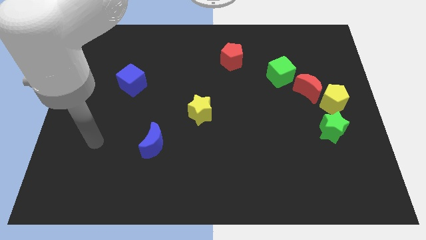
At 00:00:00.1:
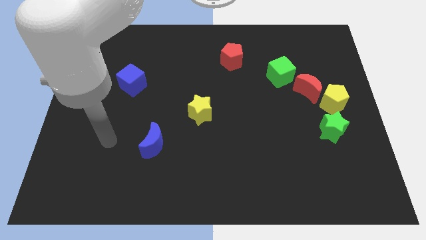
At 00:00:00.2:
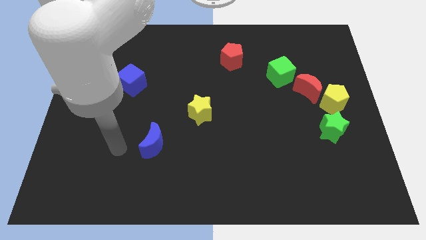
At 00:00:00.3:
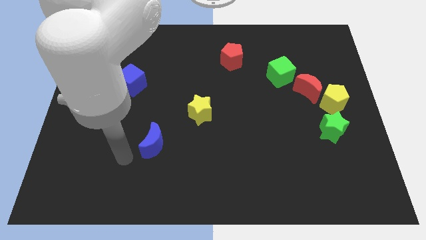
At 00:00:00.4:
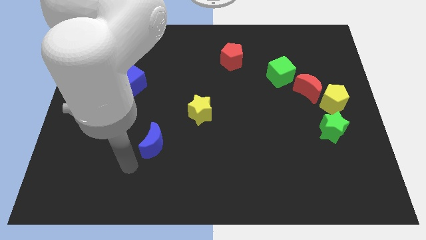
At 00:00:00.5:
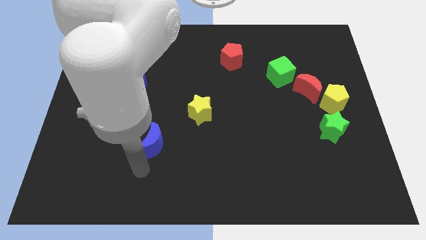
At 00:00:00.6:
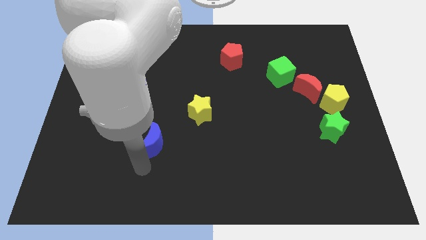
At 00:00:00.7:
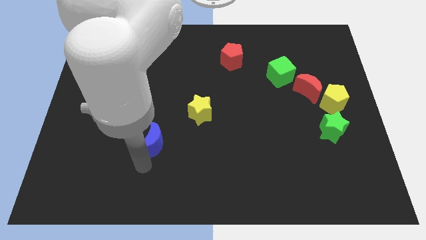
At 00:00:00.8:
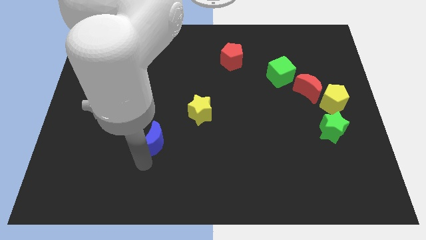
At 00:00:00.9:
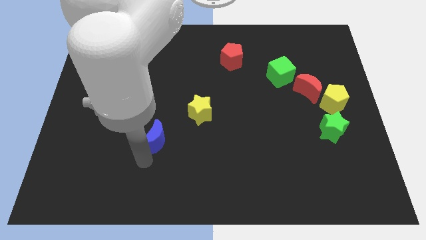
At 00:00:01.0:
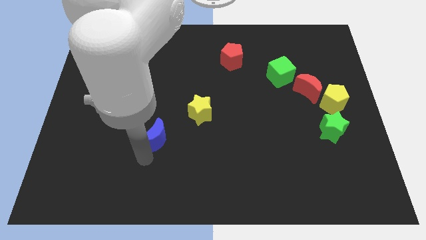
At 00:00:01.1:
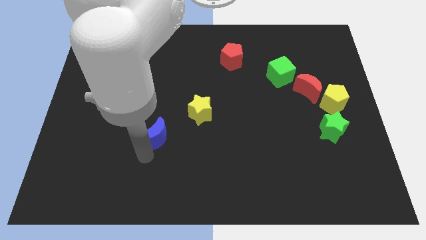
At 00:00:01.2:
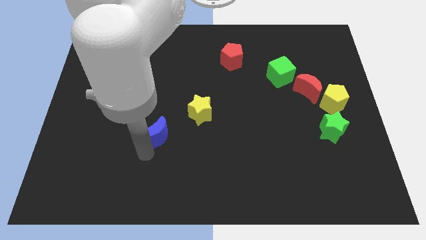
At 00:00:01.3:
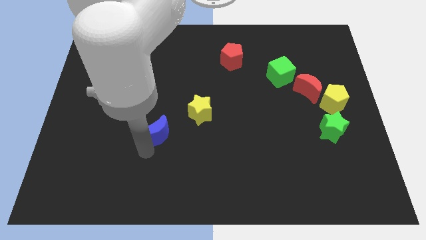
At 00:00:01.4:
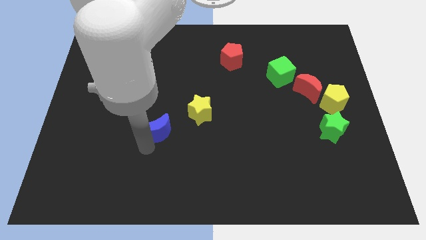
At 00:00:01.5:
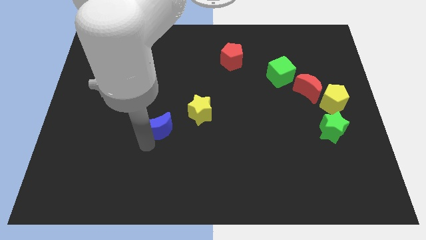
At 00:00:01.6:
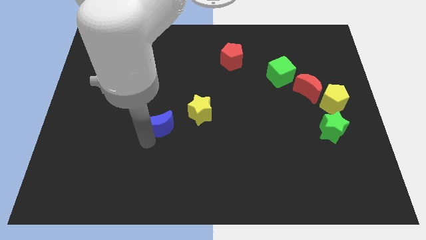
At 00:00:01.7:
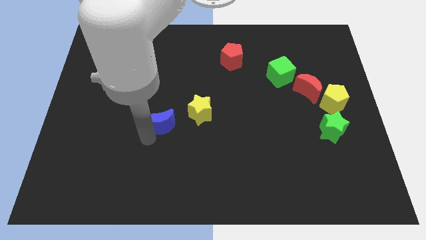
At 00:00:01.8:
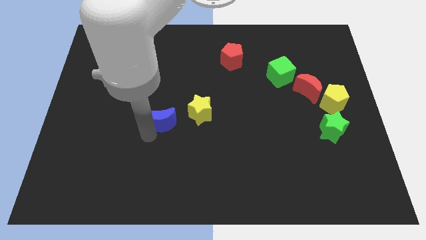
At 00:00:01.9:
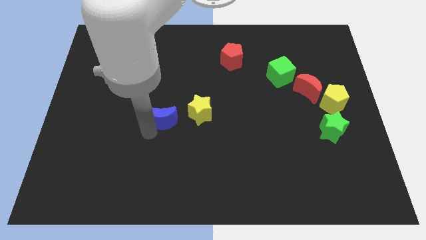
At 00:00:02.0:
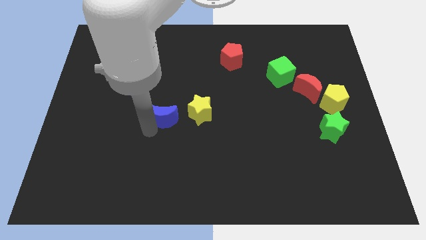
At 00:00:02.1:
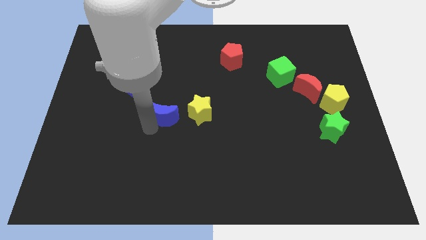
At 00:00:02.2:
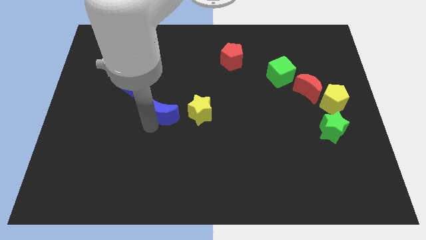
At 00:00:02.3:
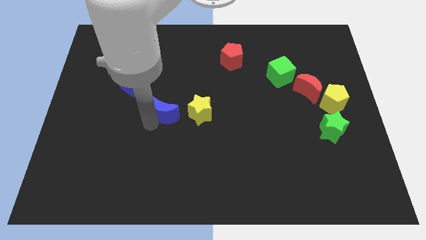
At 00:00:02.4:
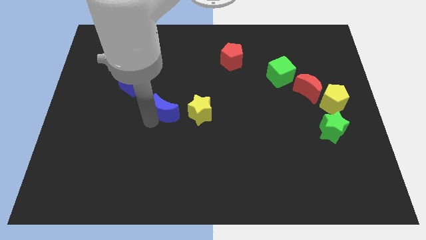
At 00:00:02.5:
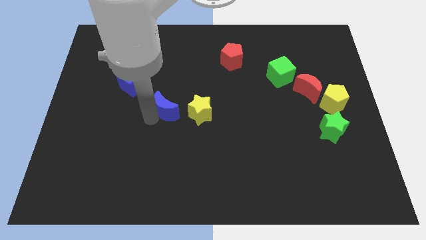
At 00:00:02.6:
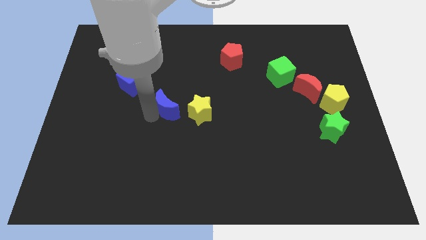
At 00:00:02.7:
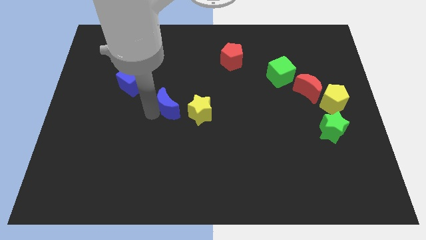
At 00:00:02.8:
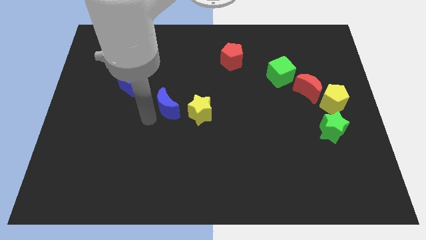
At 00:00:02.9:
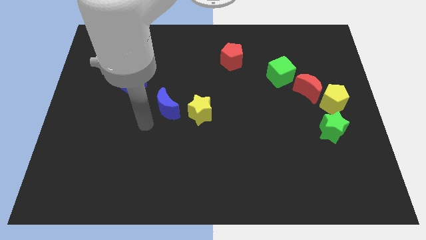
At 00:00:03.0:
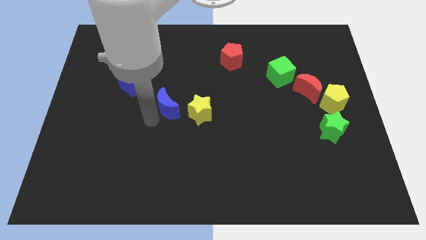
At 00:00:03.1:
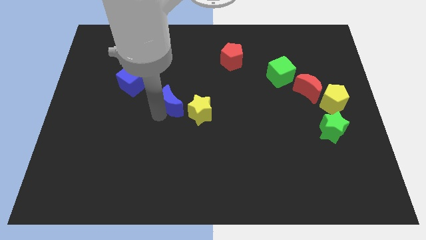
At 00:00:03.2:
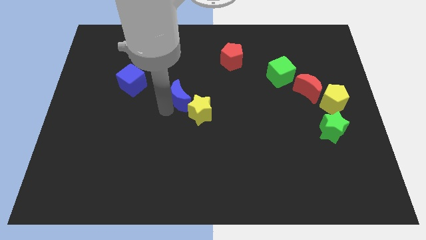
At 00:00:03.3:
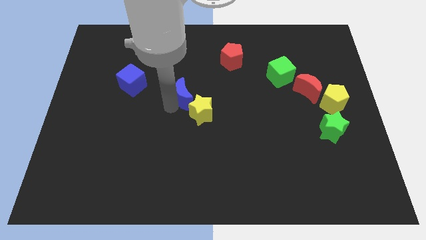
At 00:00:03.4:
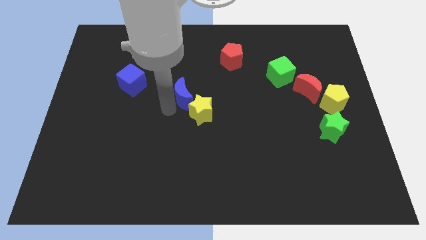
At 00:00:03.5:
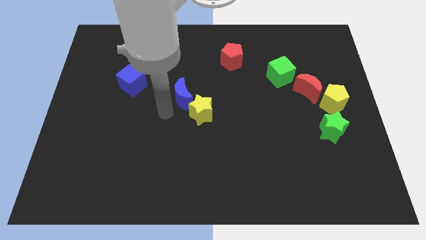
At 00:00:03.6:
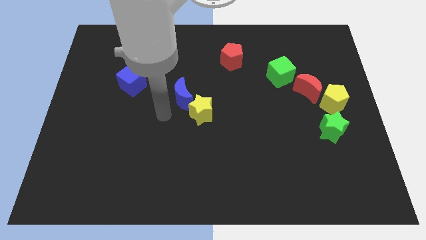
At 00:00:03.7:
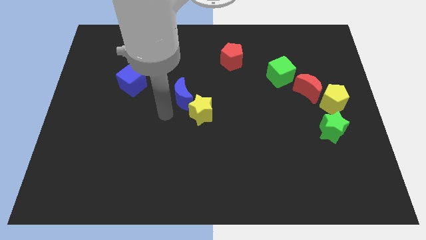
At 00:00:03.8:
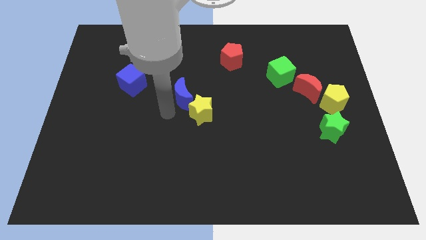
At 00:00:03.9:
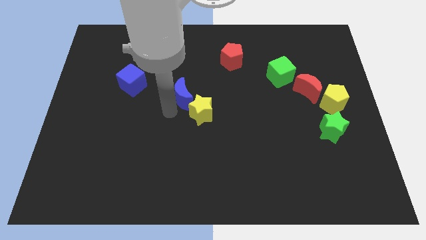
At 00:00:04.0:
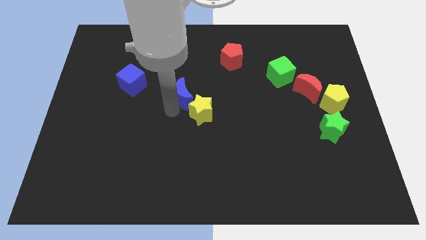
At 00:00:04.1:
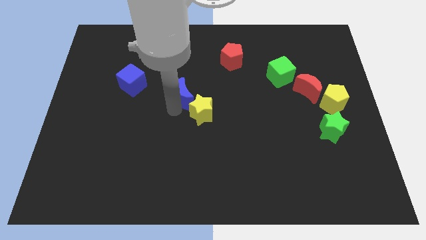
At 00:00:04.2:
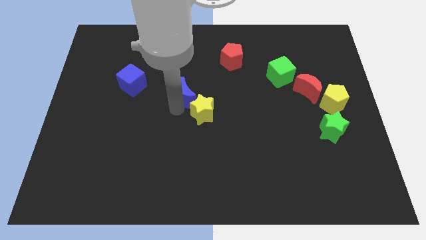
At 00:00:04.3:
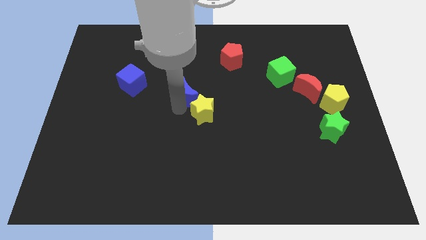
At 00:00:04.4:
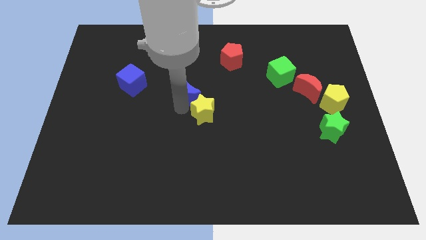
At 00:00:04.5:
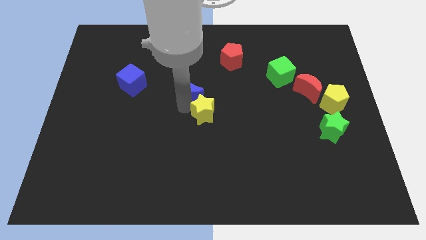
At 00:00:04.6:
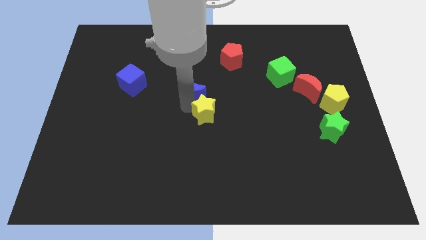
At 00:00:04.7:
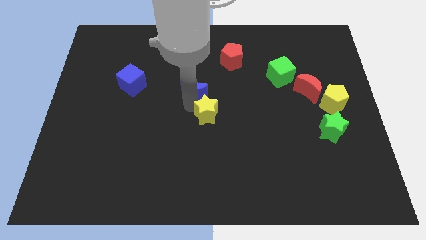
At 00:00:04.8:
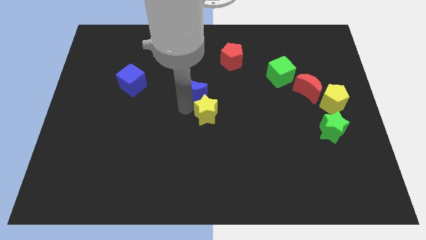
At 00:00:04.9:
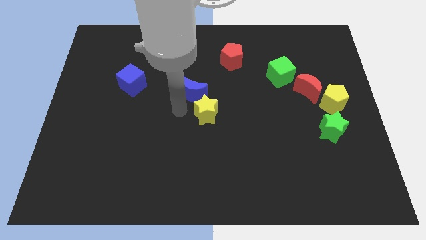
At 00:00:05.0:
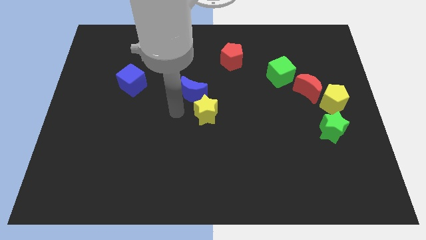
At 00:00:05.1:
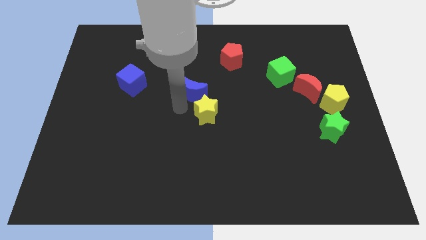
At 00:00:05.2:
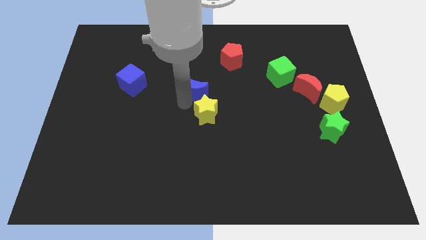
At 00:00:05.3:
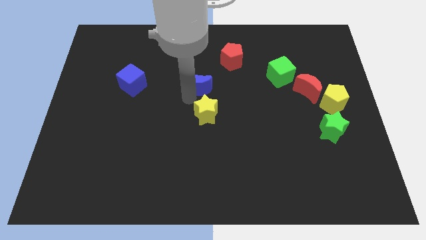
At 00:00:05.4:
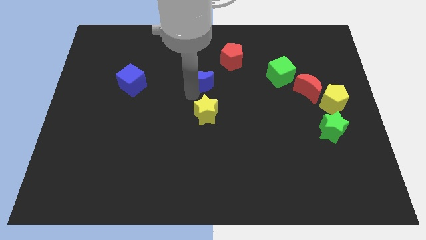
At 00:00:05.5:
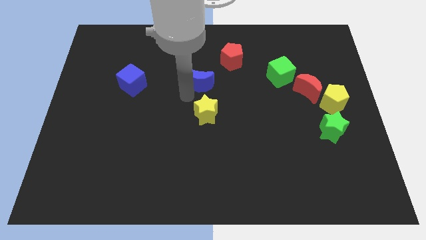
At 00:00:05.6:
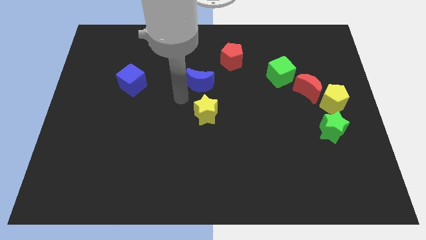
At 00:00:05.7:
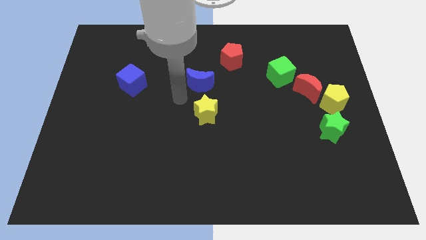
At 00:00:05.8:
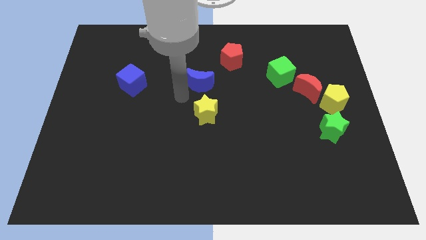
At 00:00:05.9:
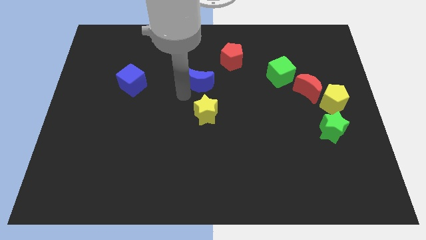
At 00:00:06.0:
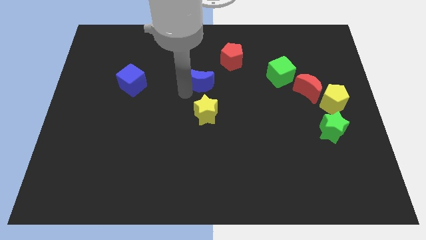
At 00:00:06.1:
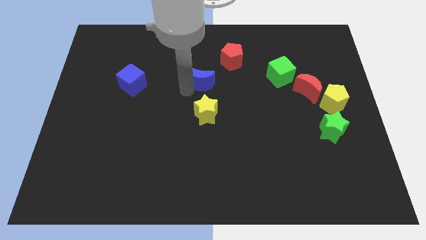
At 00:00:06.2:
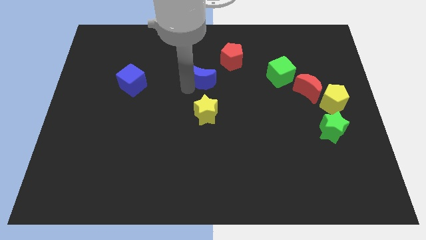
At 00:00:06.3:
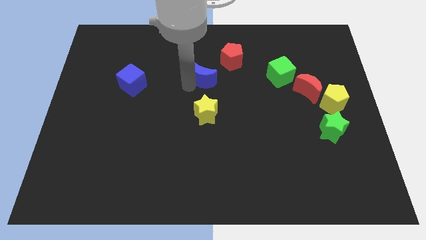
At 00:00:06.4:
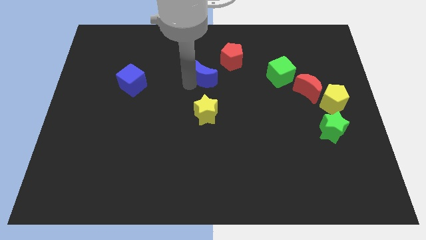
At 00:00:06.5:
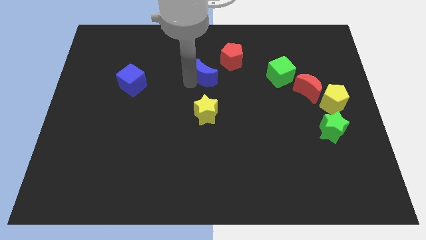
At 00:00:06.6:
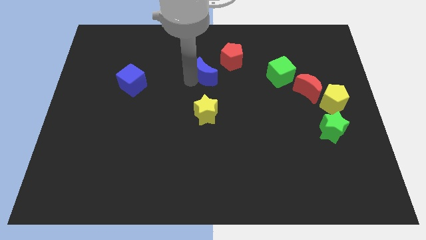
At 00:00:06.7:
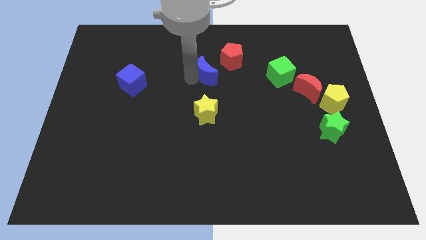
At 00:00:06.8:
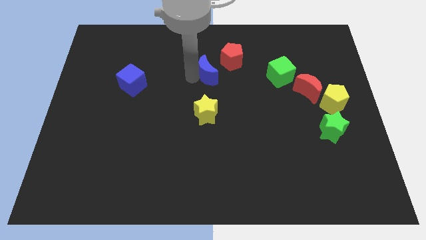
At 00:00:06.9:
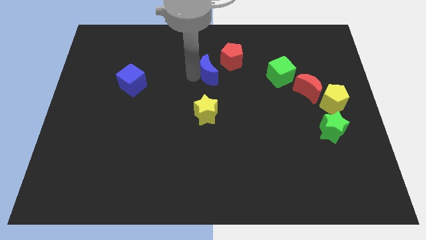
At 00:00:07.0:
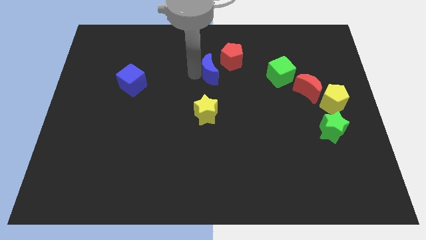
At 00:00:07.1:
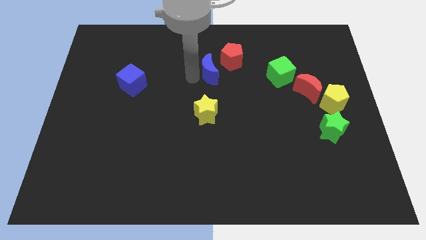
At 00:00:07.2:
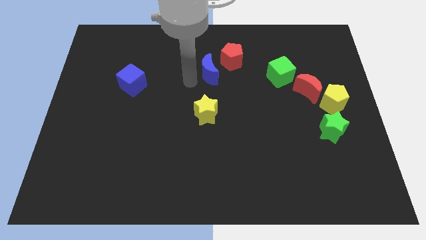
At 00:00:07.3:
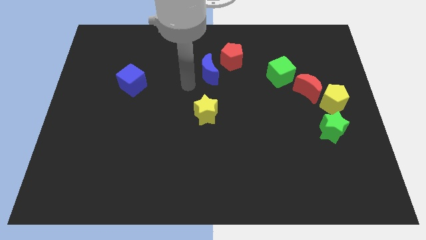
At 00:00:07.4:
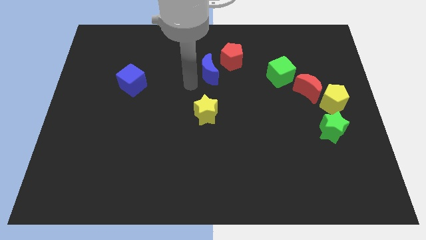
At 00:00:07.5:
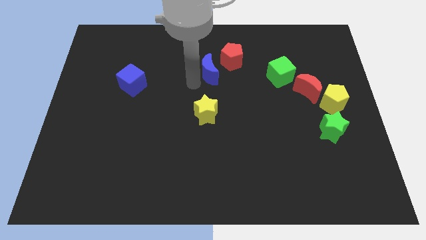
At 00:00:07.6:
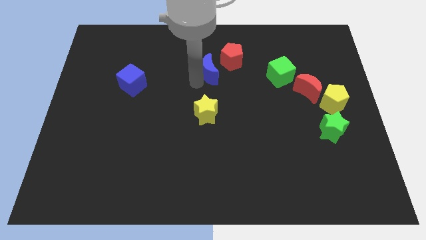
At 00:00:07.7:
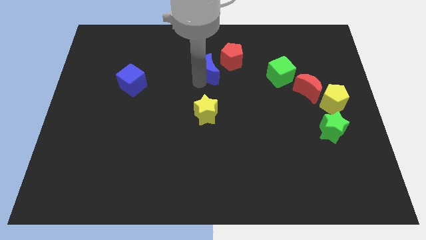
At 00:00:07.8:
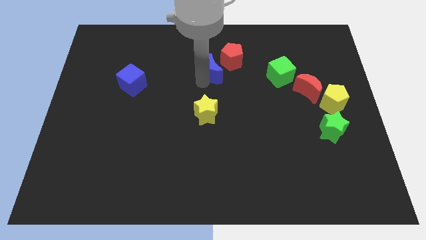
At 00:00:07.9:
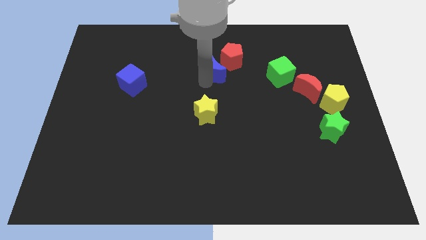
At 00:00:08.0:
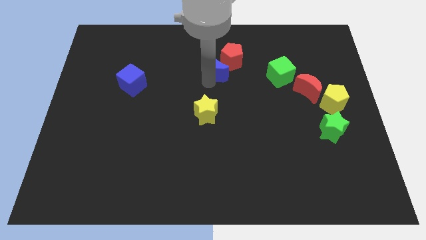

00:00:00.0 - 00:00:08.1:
put the blue moon next to the red pentagon
